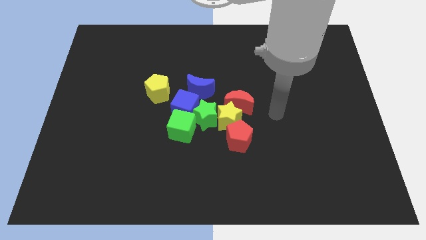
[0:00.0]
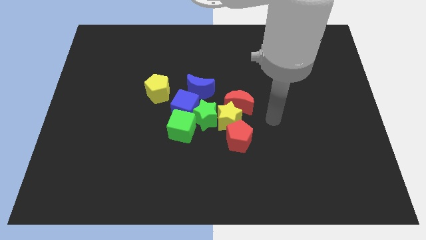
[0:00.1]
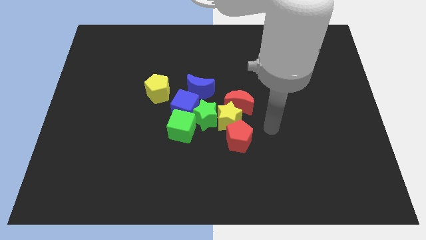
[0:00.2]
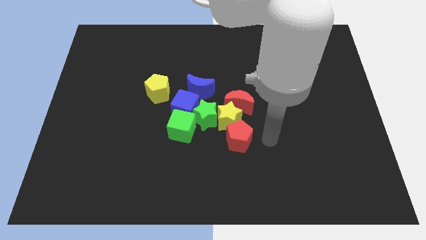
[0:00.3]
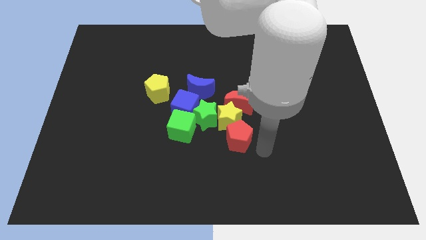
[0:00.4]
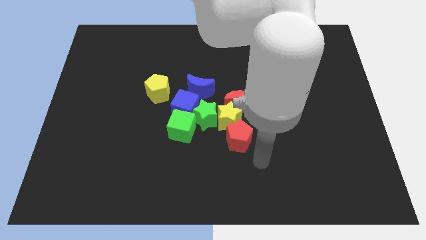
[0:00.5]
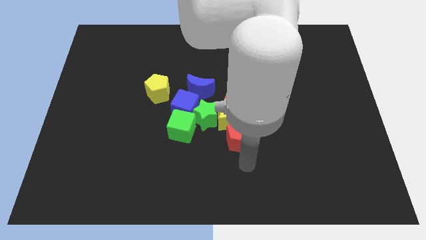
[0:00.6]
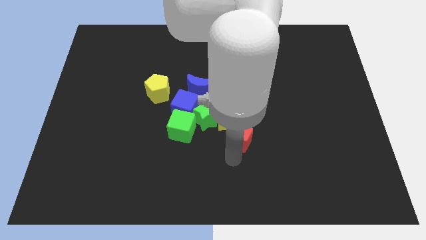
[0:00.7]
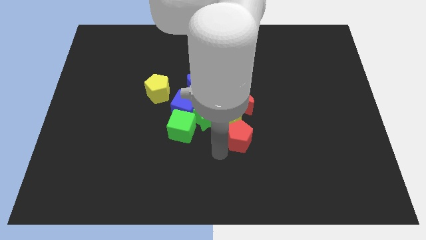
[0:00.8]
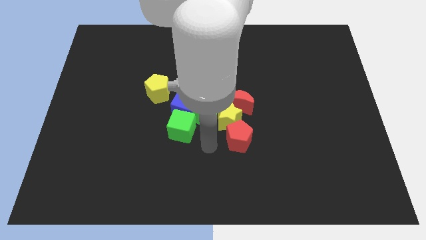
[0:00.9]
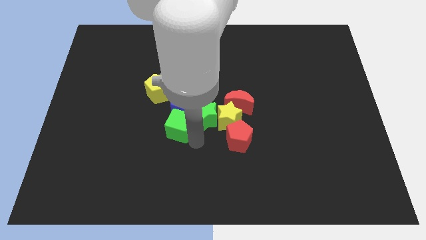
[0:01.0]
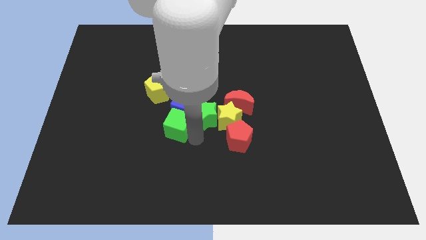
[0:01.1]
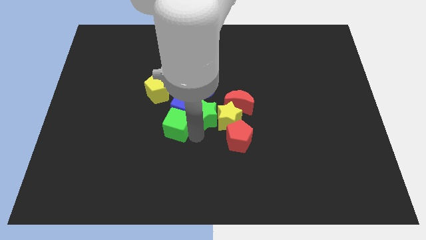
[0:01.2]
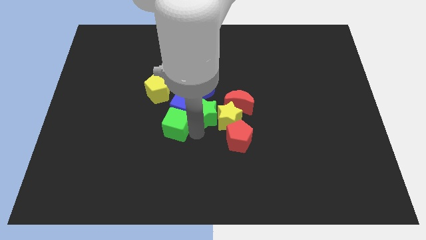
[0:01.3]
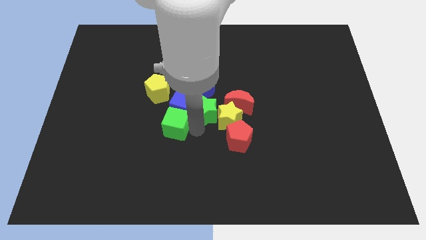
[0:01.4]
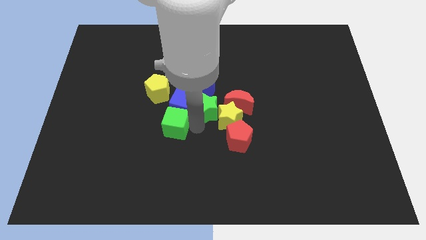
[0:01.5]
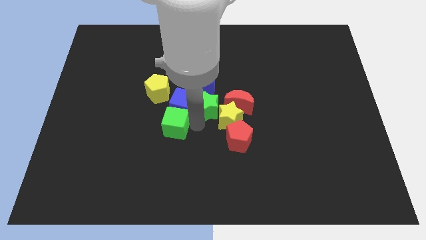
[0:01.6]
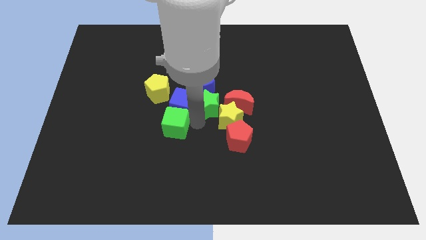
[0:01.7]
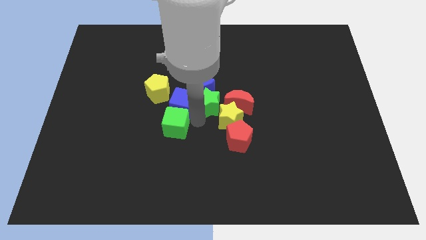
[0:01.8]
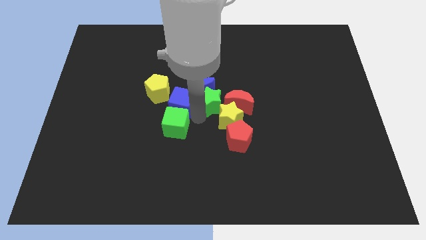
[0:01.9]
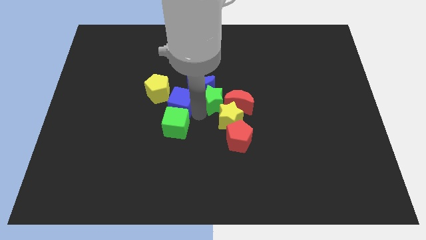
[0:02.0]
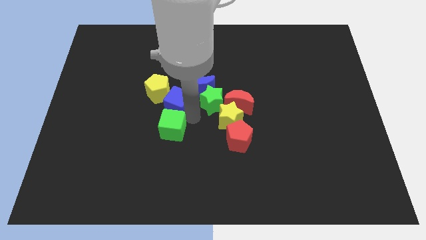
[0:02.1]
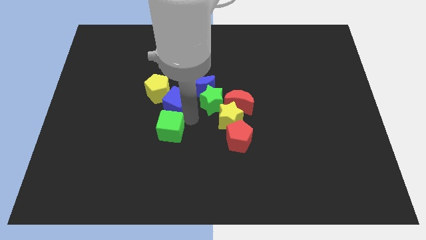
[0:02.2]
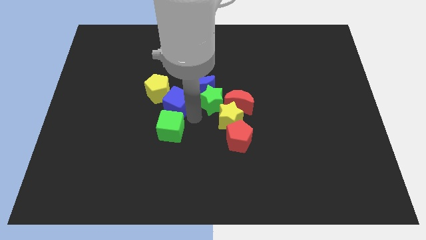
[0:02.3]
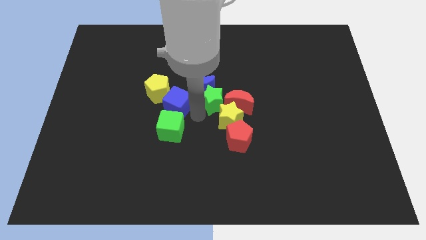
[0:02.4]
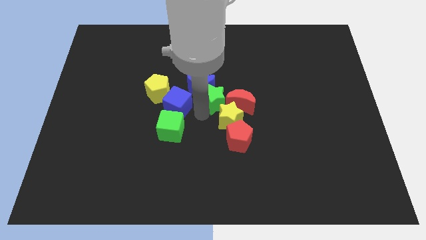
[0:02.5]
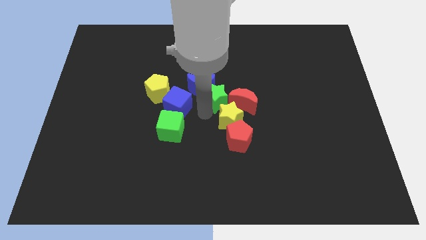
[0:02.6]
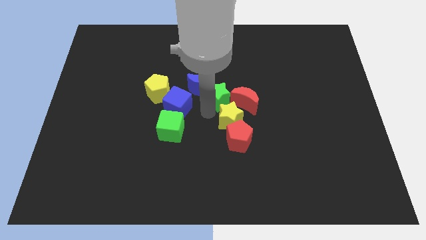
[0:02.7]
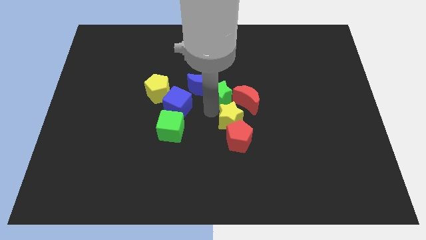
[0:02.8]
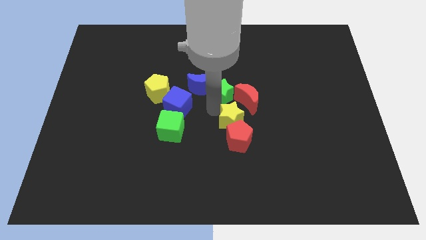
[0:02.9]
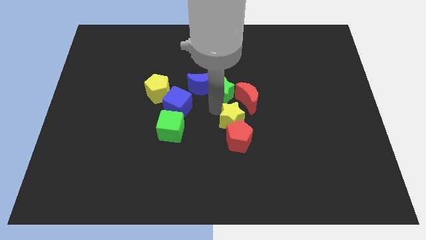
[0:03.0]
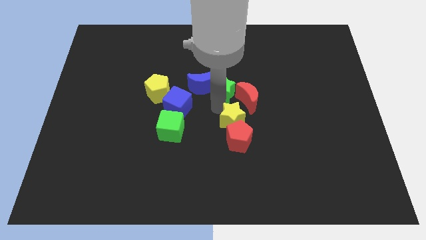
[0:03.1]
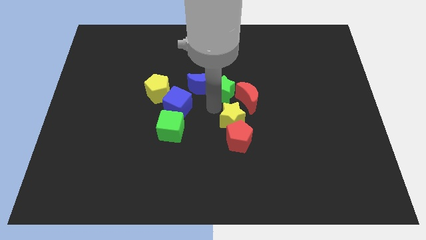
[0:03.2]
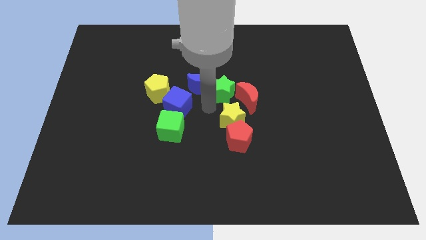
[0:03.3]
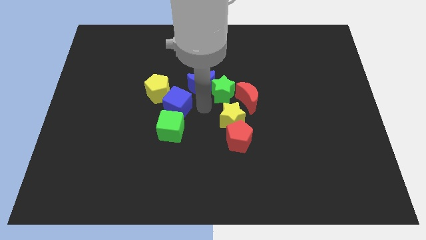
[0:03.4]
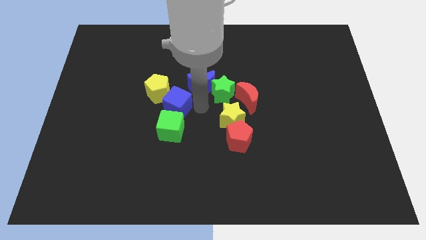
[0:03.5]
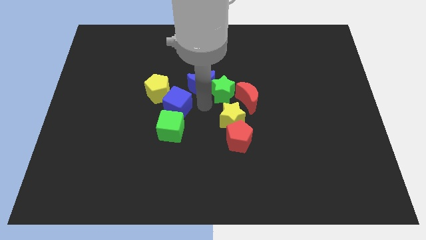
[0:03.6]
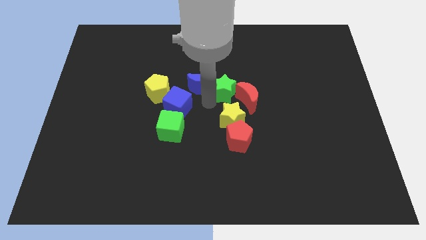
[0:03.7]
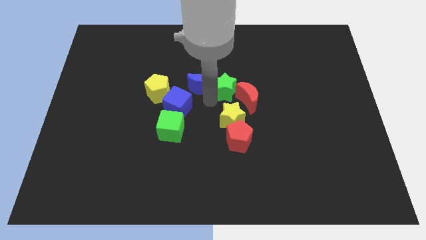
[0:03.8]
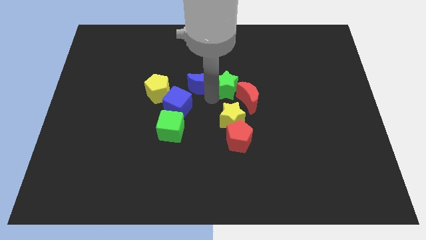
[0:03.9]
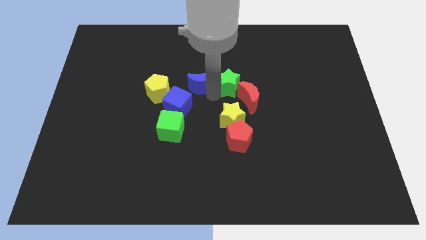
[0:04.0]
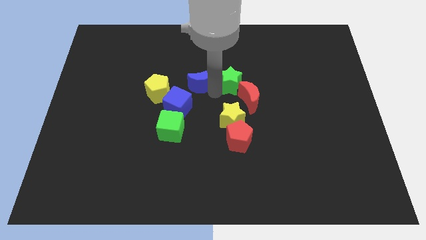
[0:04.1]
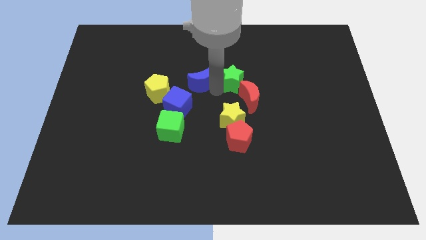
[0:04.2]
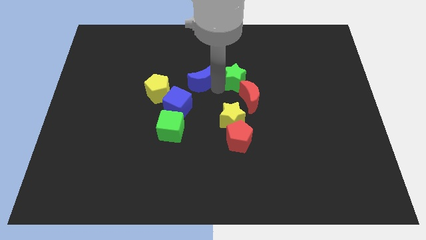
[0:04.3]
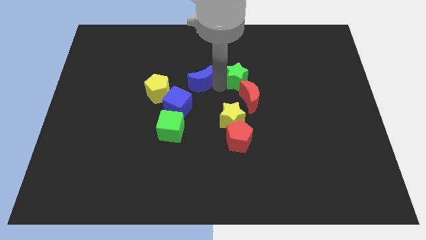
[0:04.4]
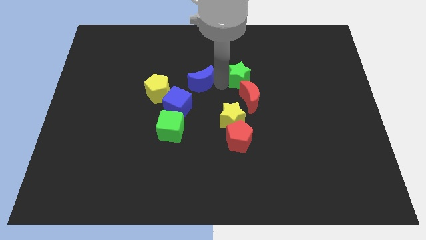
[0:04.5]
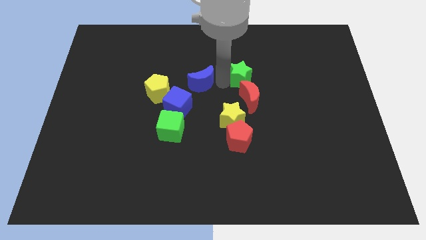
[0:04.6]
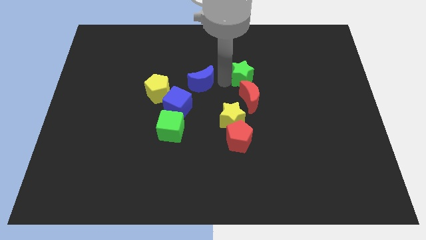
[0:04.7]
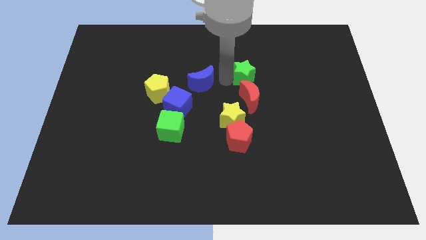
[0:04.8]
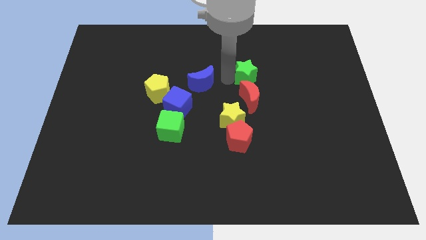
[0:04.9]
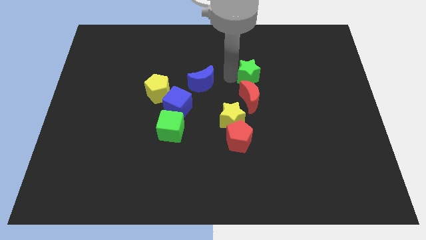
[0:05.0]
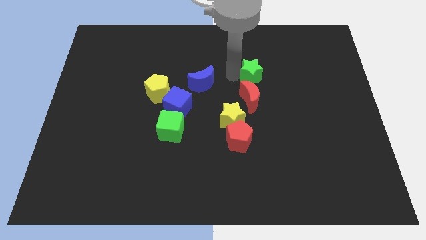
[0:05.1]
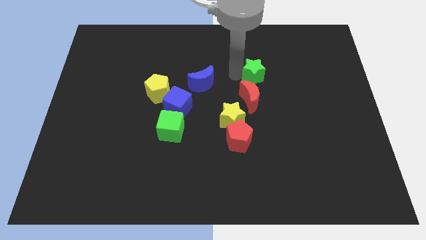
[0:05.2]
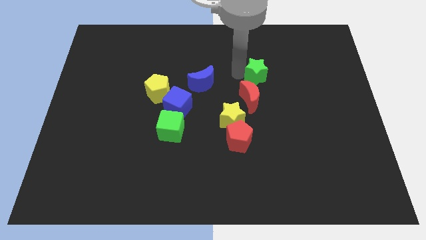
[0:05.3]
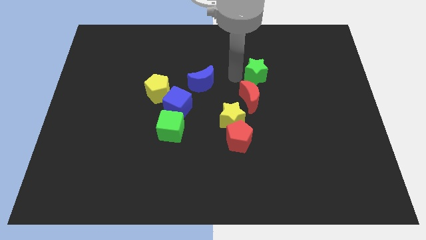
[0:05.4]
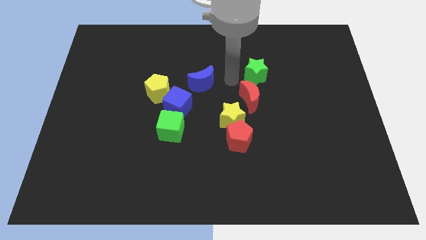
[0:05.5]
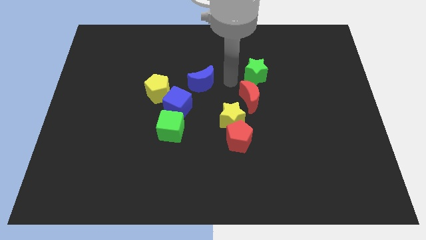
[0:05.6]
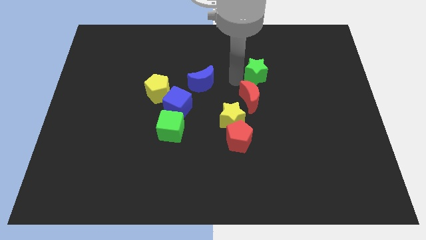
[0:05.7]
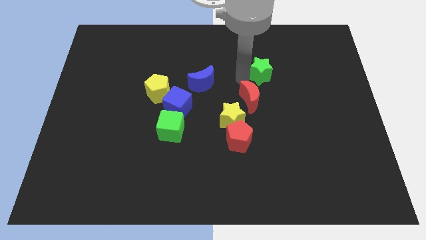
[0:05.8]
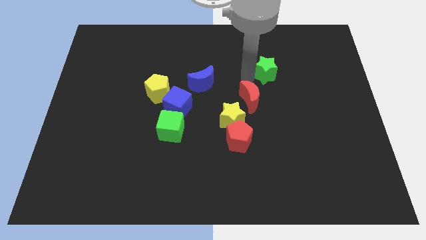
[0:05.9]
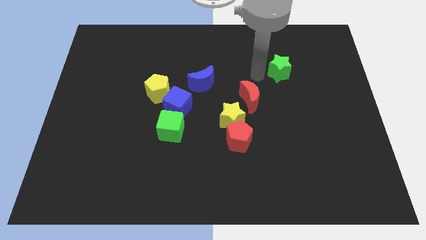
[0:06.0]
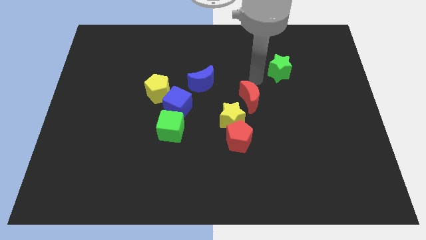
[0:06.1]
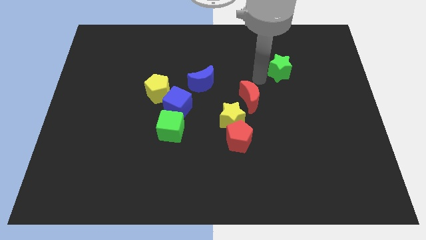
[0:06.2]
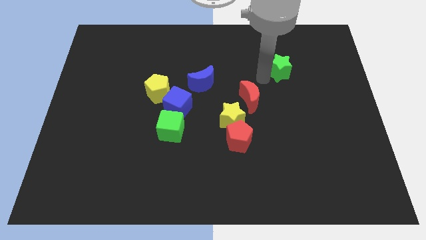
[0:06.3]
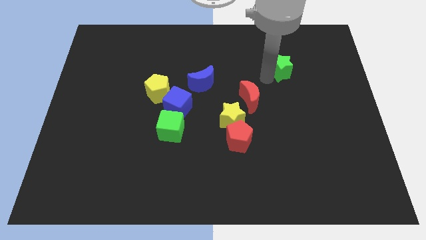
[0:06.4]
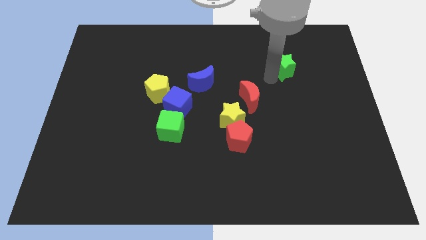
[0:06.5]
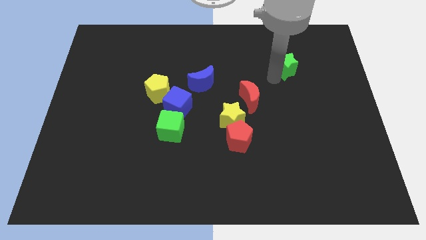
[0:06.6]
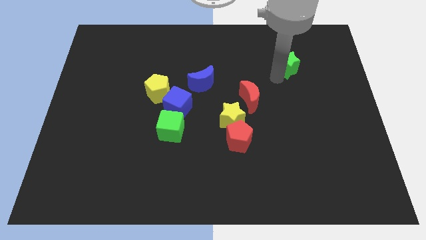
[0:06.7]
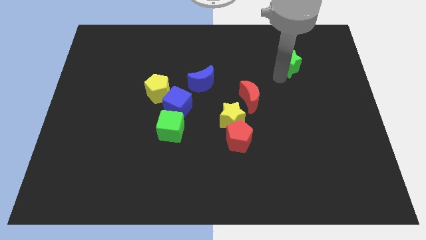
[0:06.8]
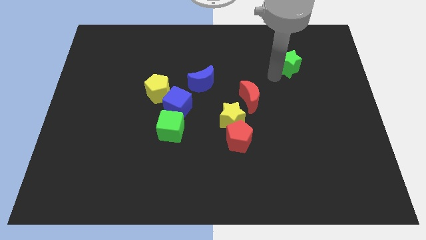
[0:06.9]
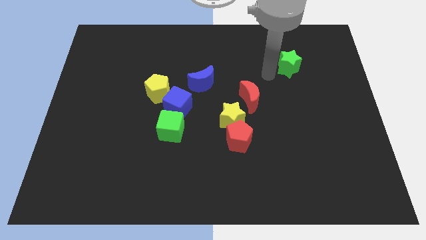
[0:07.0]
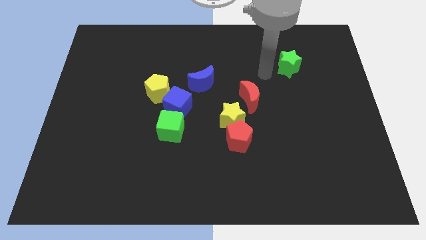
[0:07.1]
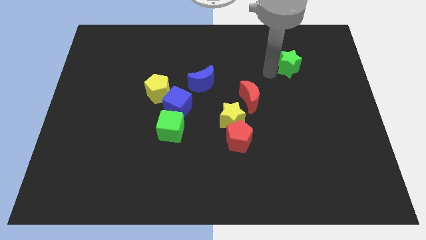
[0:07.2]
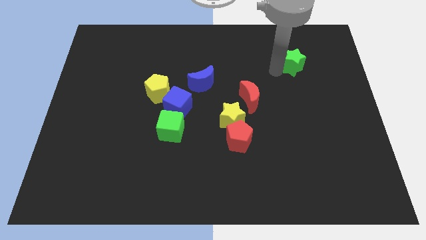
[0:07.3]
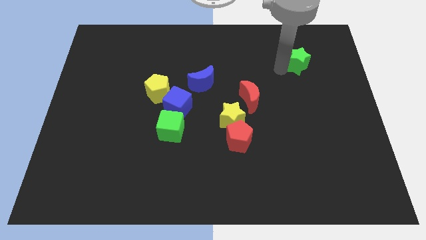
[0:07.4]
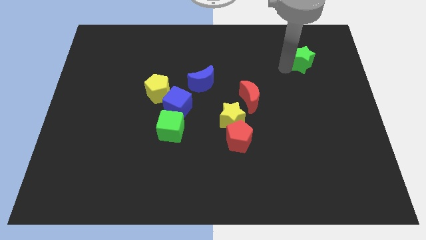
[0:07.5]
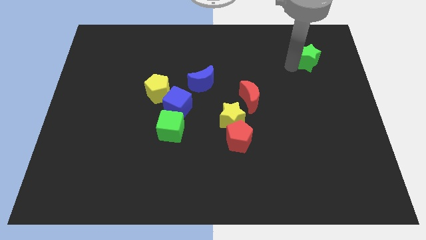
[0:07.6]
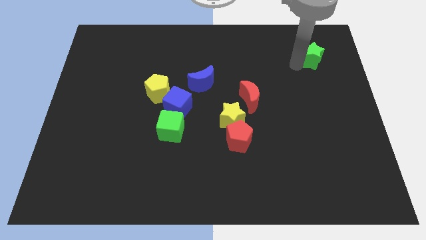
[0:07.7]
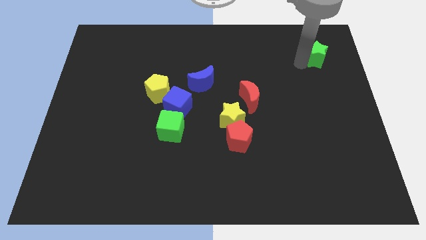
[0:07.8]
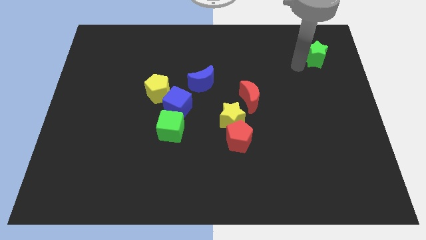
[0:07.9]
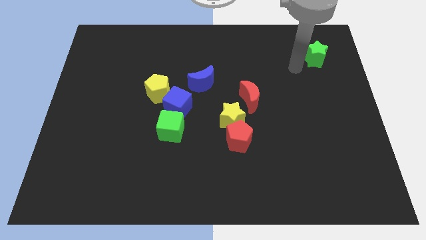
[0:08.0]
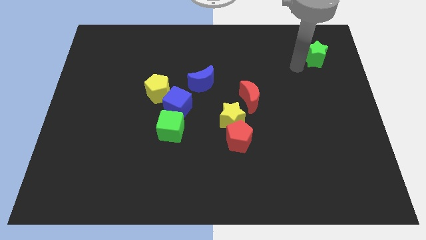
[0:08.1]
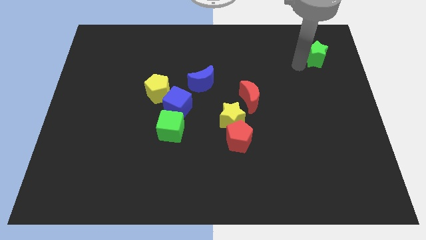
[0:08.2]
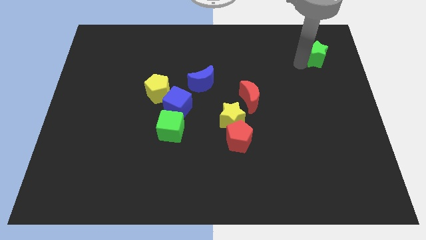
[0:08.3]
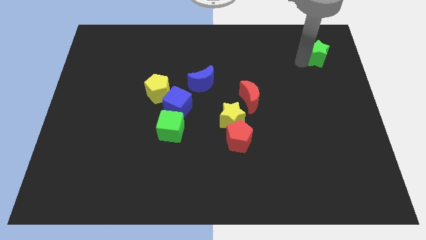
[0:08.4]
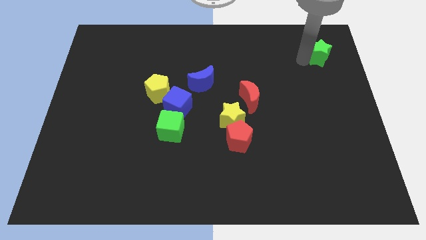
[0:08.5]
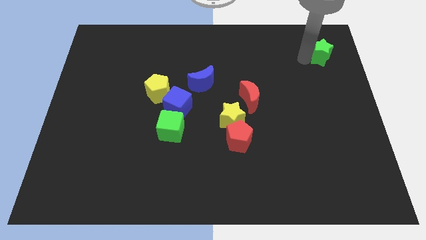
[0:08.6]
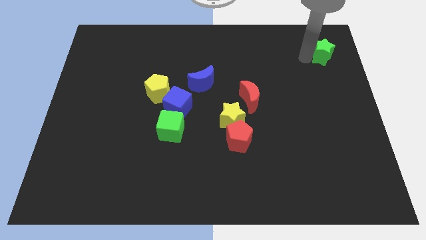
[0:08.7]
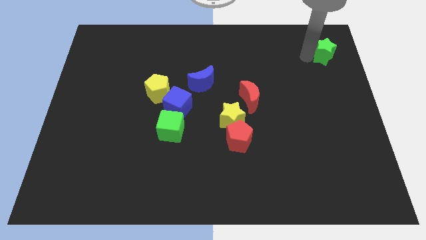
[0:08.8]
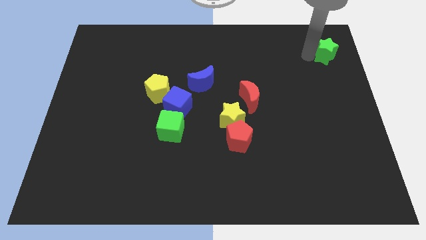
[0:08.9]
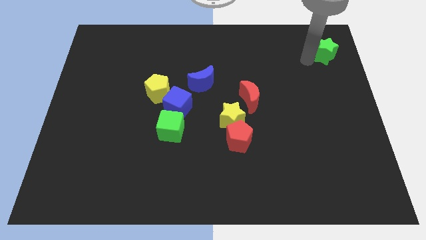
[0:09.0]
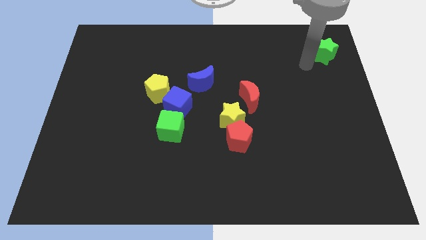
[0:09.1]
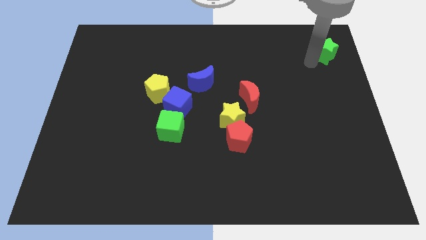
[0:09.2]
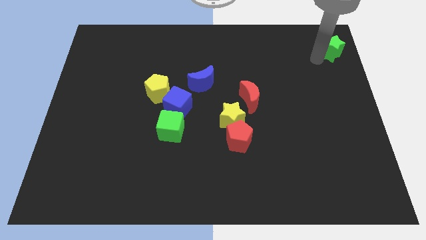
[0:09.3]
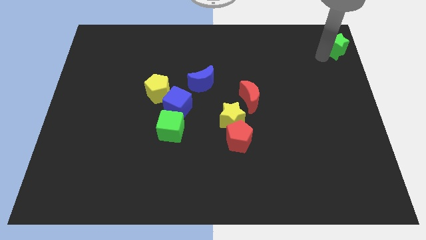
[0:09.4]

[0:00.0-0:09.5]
push the green star to the top right corner
